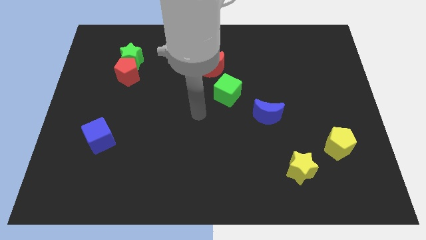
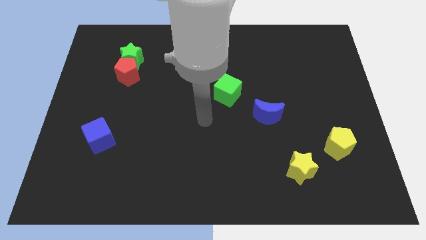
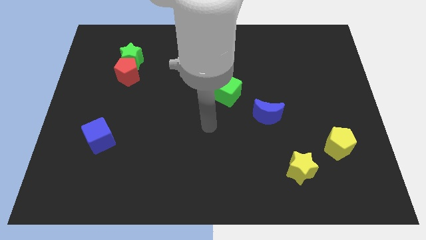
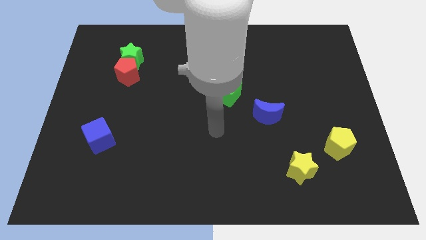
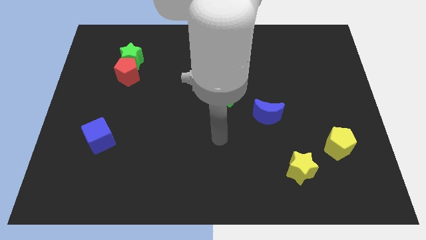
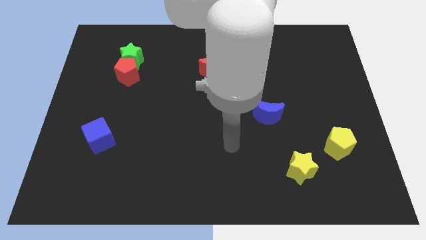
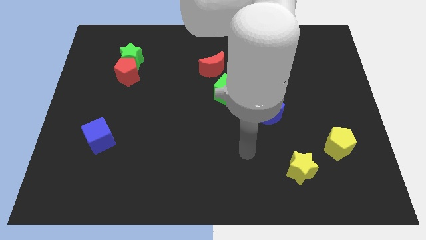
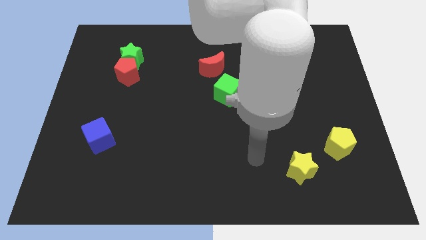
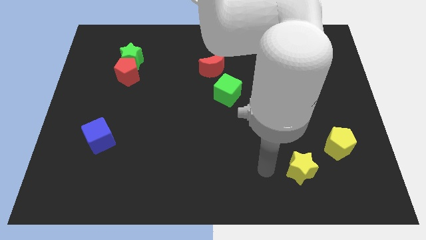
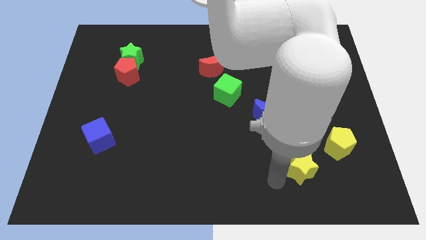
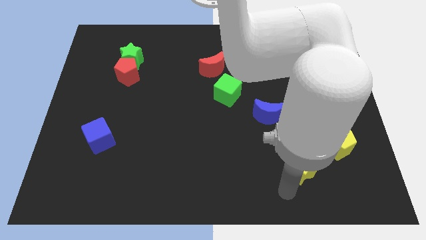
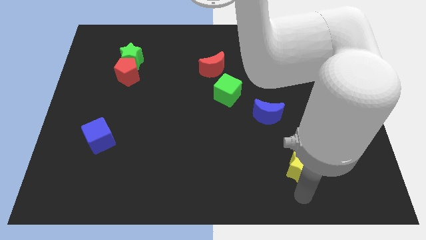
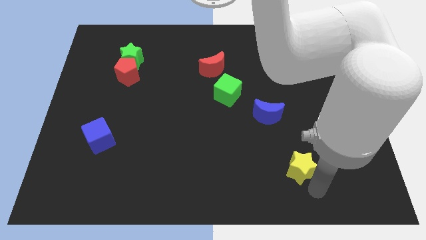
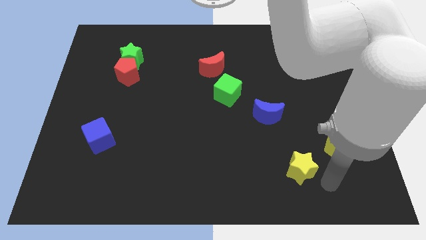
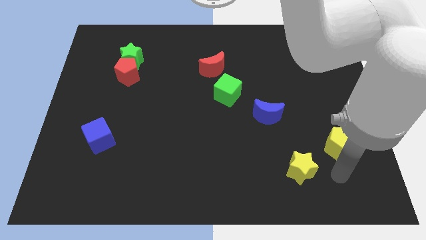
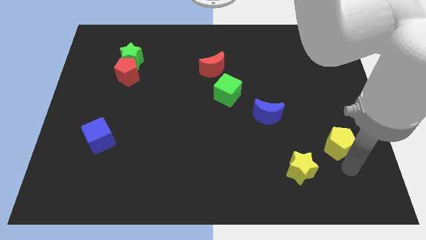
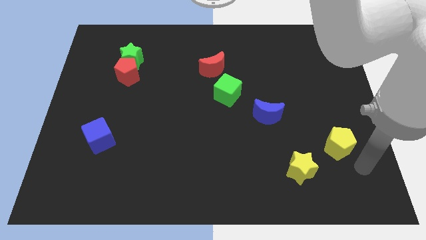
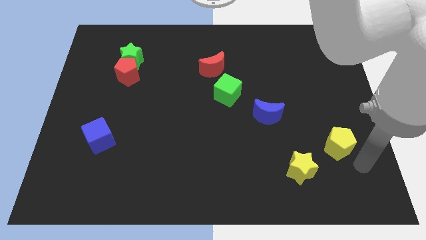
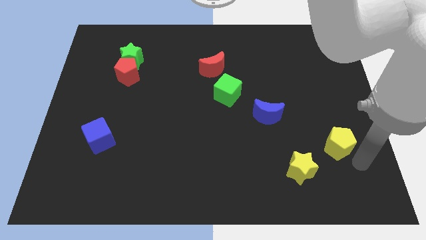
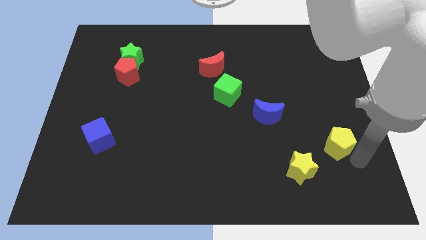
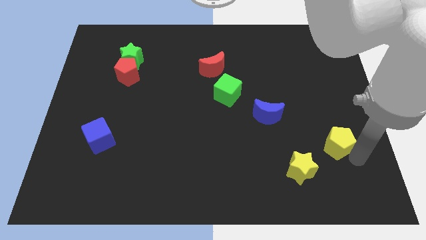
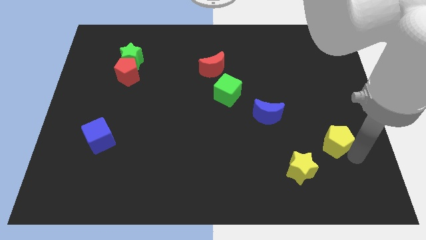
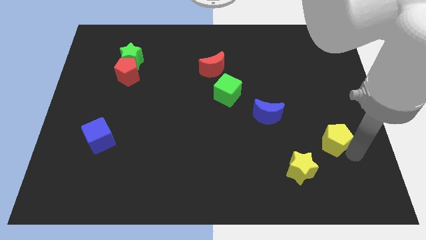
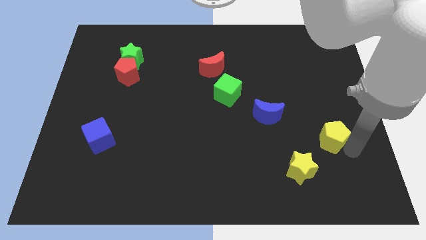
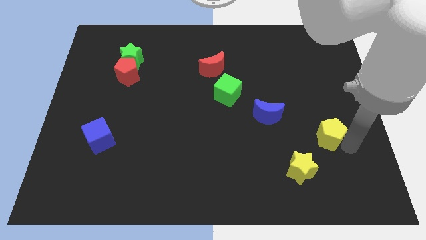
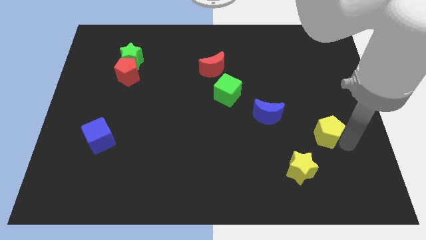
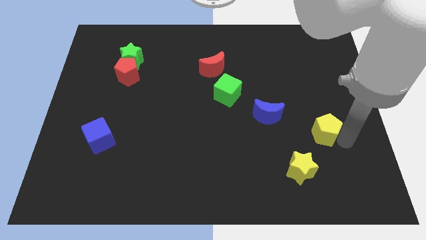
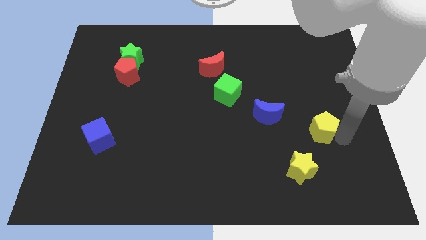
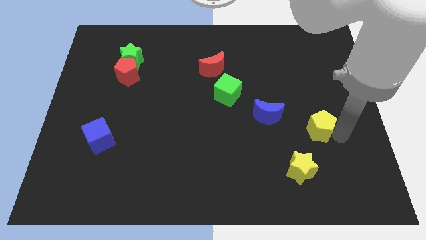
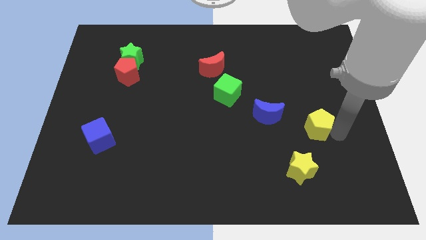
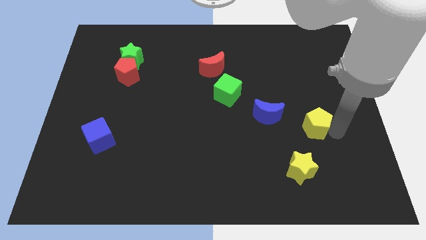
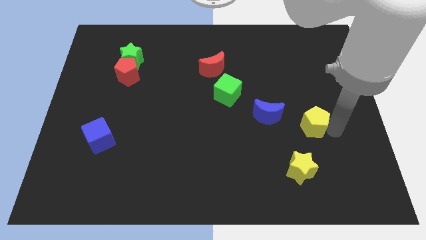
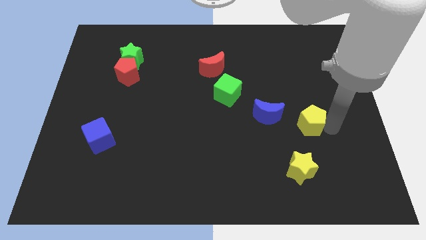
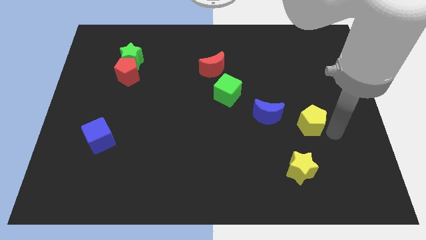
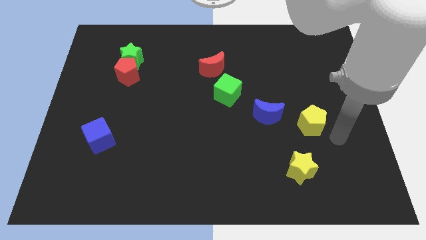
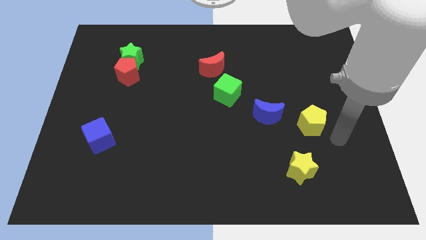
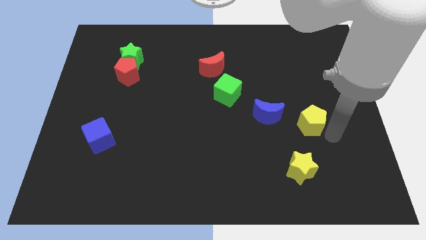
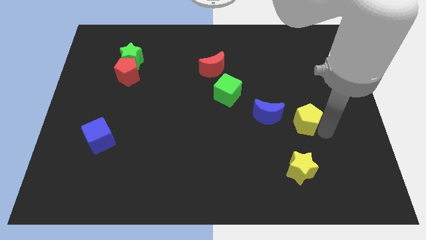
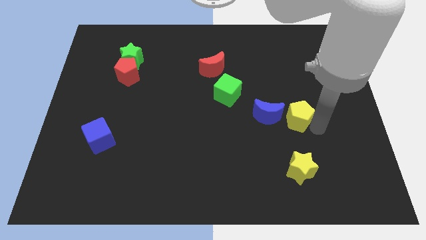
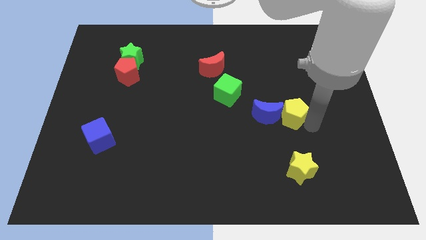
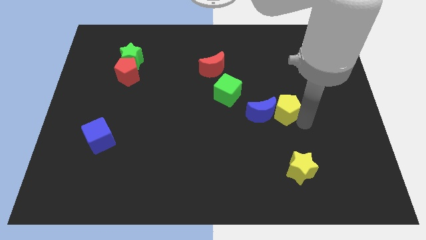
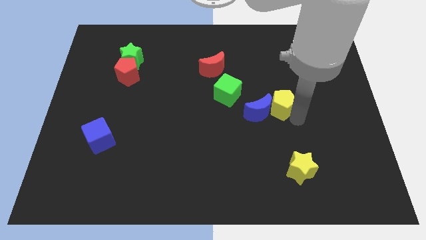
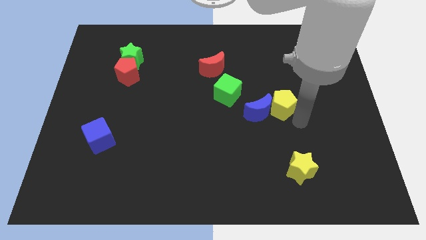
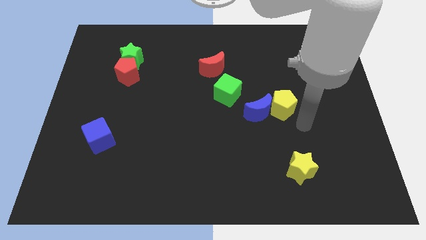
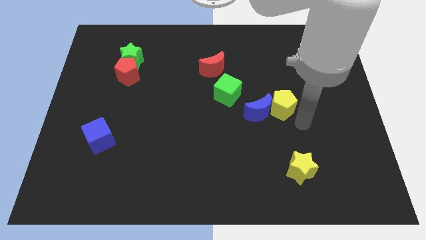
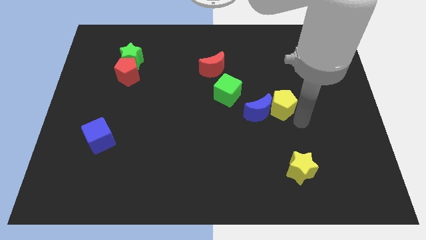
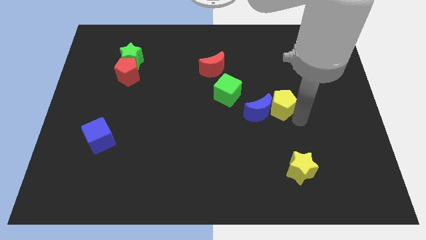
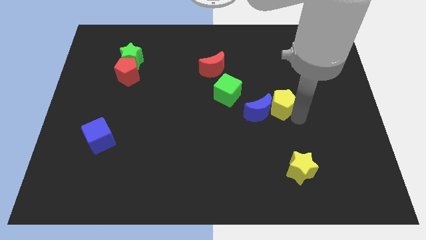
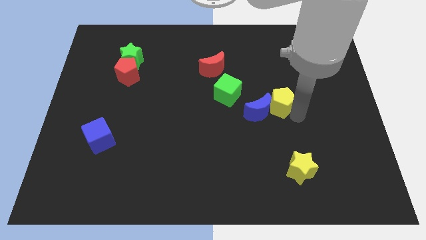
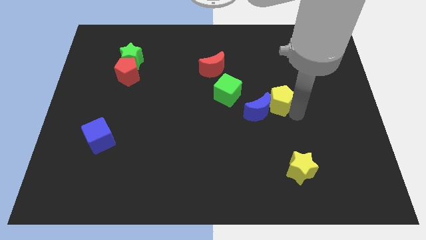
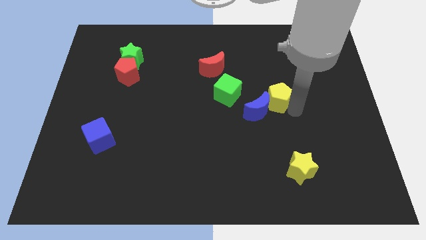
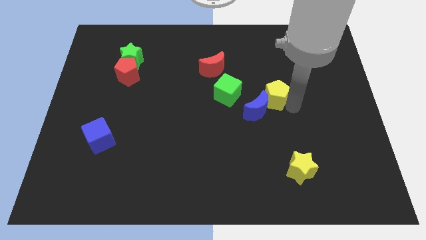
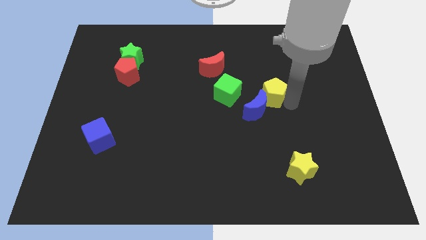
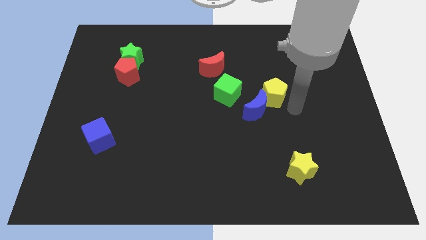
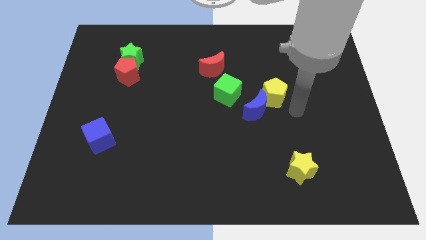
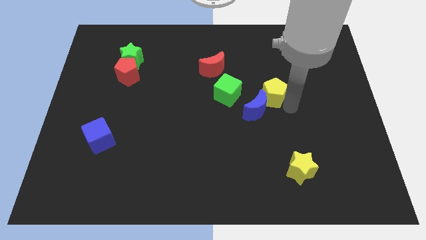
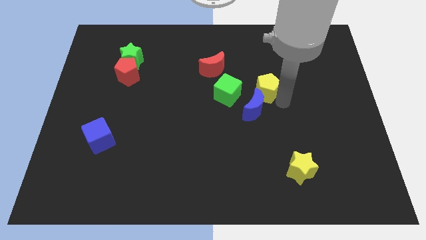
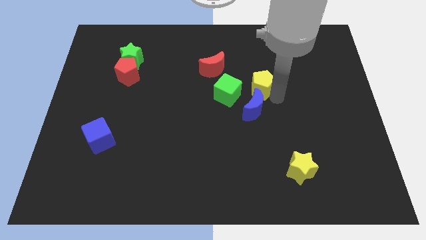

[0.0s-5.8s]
put the yellow pentagon diagonally up and to the right of the green cube
